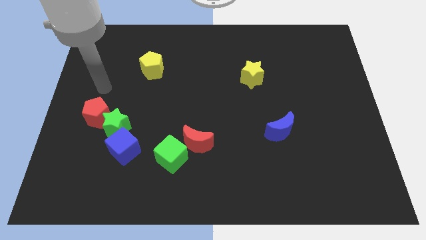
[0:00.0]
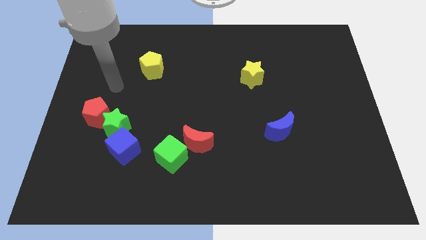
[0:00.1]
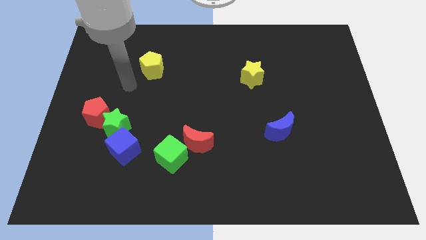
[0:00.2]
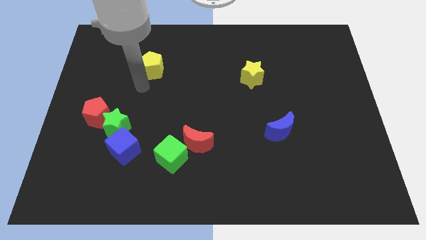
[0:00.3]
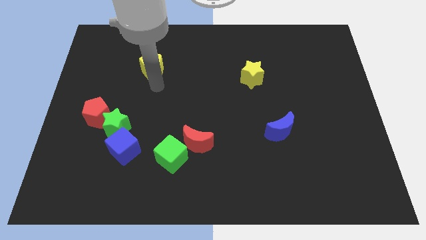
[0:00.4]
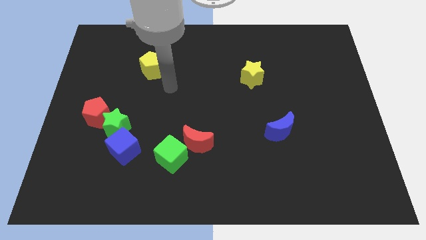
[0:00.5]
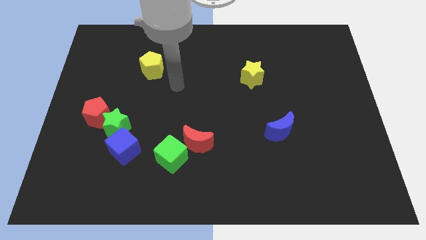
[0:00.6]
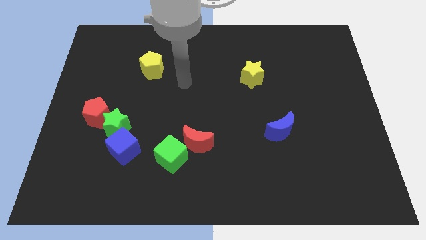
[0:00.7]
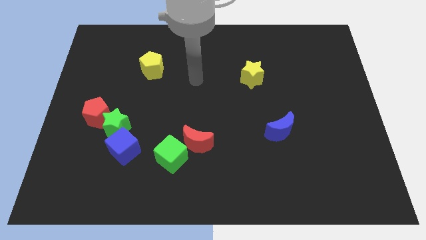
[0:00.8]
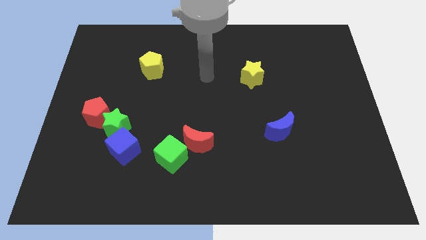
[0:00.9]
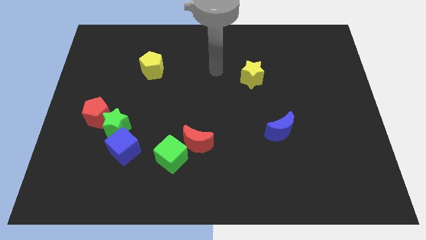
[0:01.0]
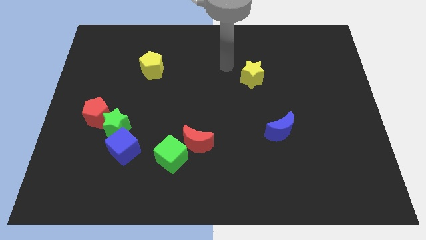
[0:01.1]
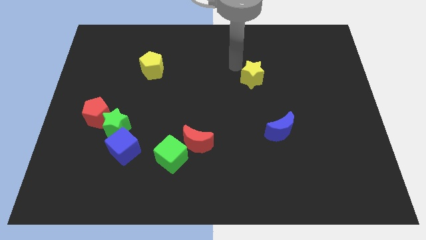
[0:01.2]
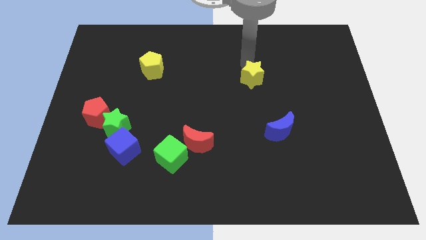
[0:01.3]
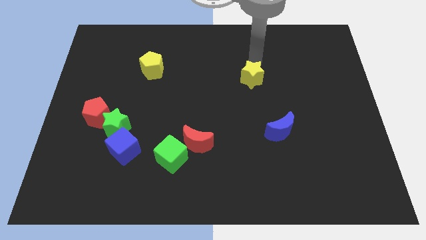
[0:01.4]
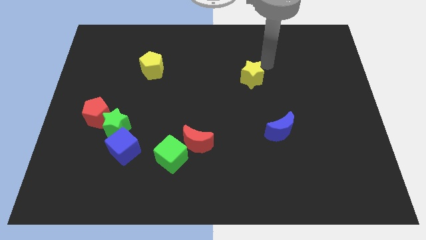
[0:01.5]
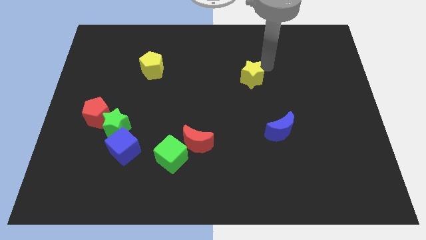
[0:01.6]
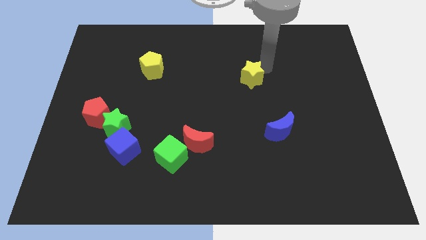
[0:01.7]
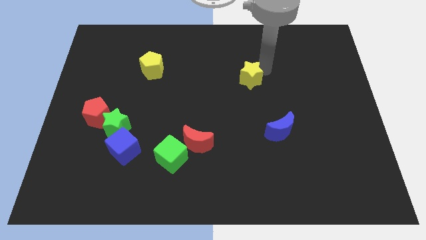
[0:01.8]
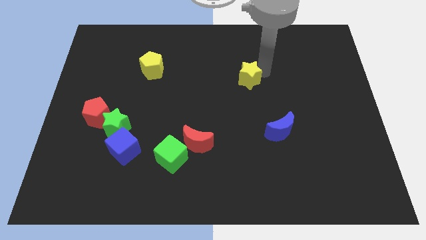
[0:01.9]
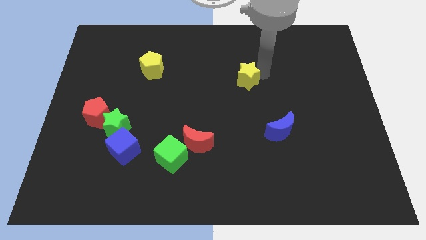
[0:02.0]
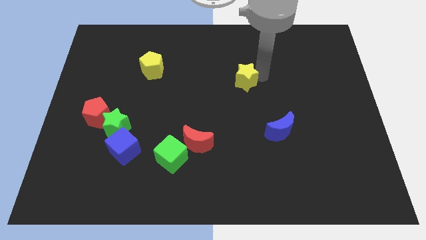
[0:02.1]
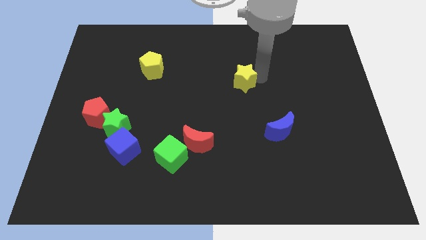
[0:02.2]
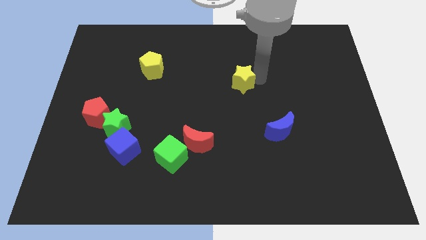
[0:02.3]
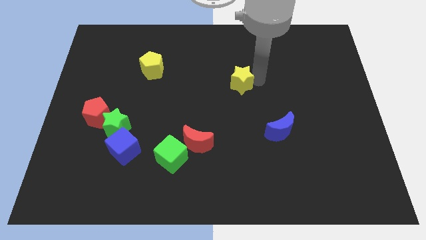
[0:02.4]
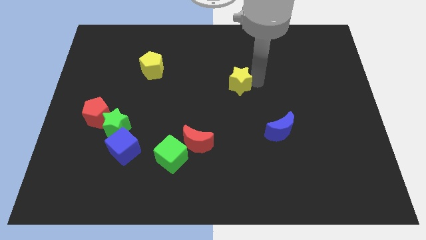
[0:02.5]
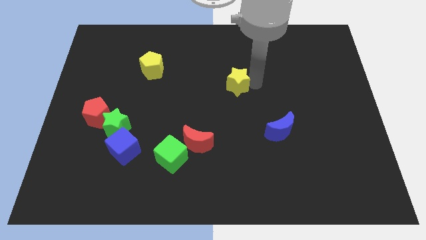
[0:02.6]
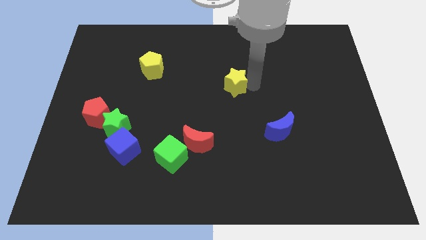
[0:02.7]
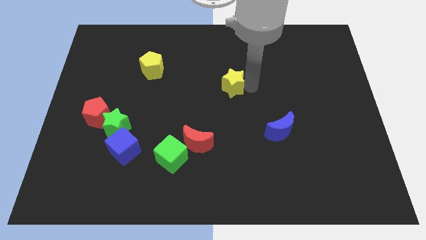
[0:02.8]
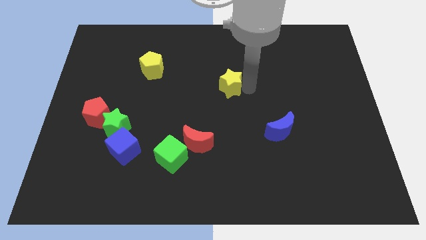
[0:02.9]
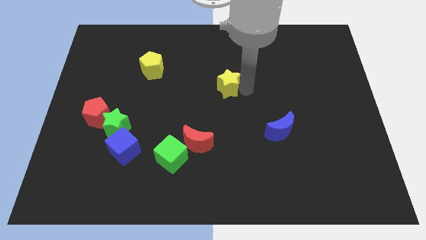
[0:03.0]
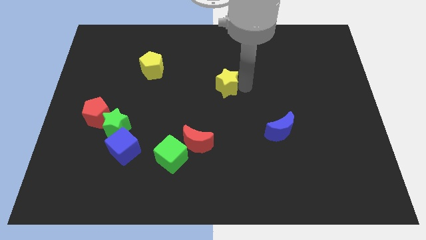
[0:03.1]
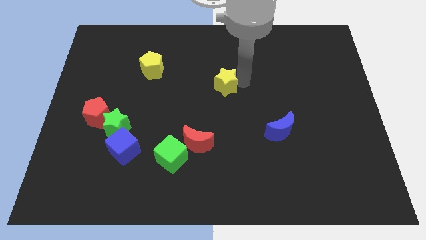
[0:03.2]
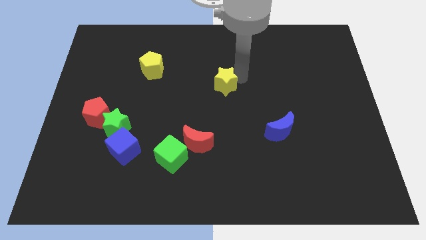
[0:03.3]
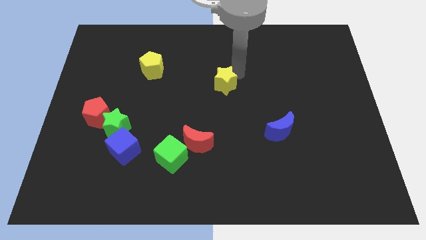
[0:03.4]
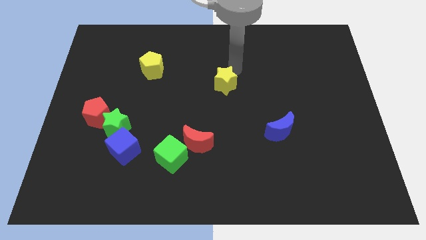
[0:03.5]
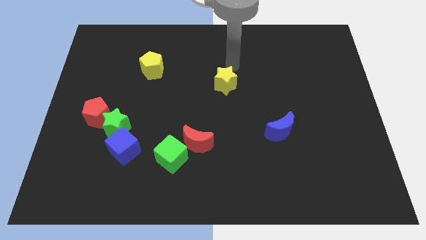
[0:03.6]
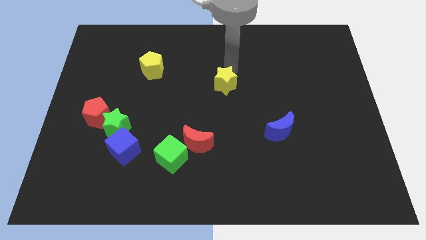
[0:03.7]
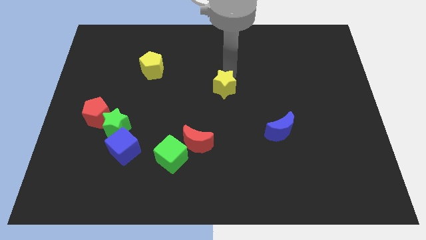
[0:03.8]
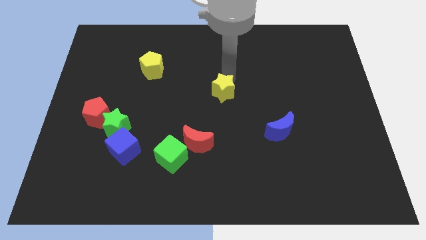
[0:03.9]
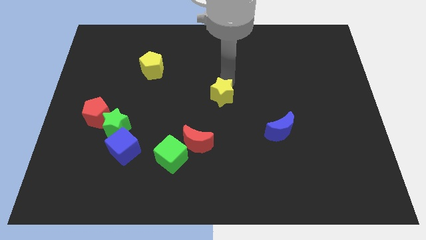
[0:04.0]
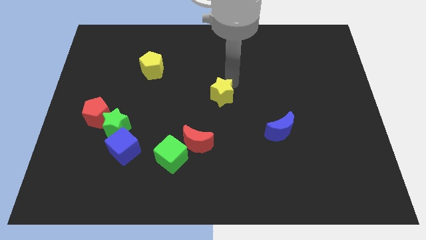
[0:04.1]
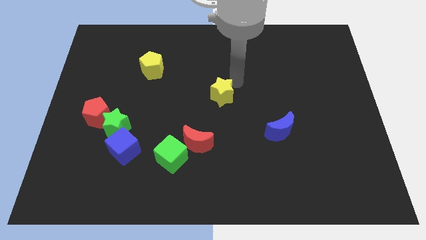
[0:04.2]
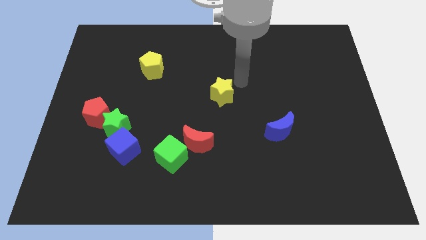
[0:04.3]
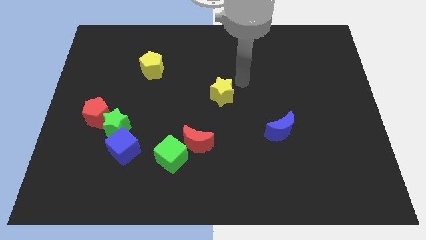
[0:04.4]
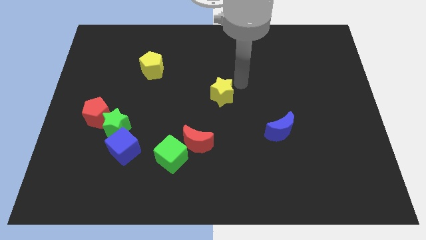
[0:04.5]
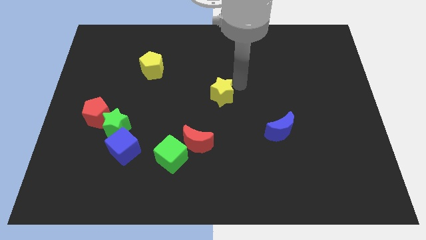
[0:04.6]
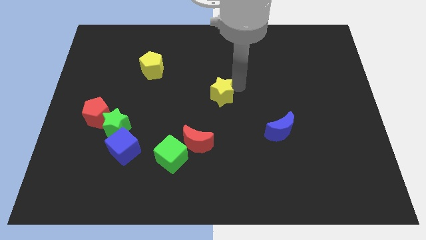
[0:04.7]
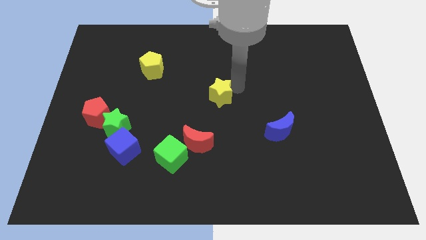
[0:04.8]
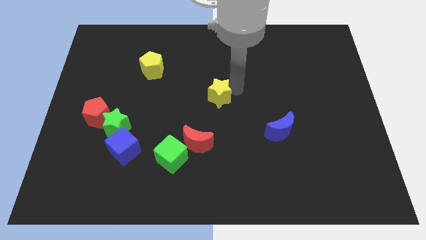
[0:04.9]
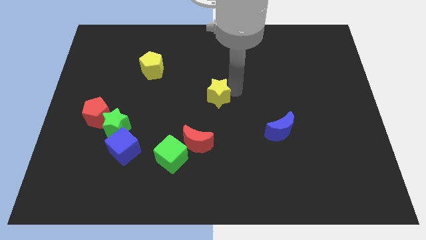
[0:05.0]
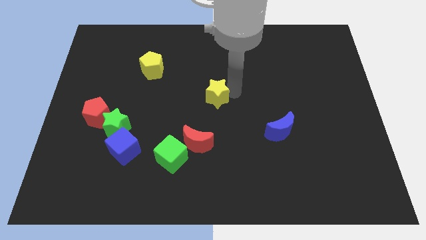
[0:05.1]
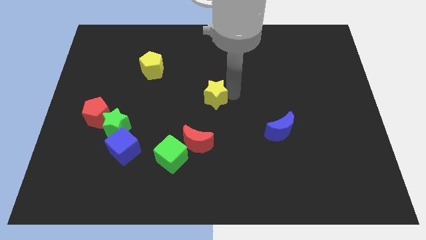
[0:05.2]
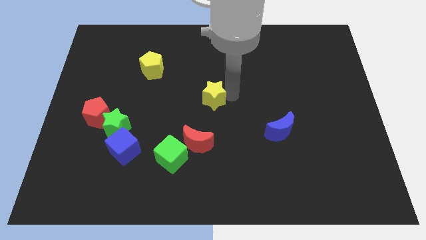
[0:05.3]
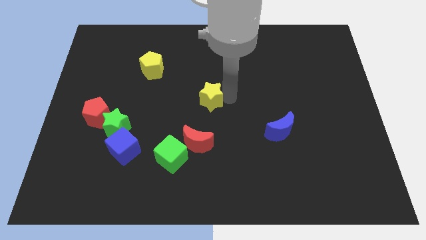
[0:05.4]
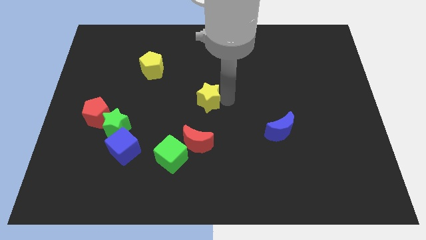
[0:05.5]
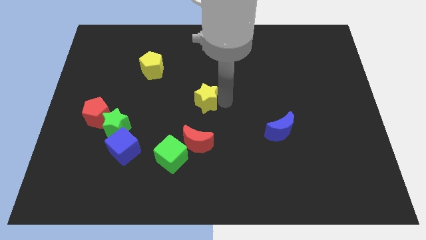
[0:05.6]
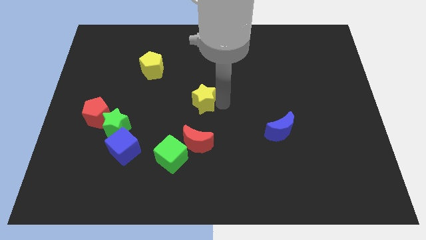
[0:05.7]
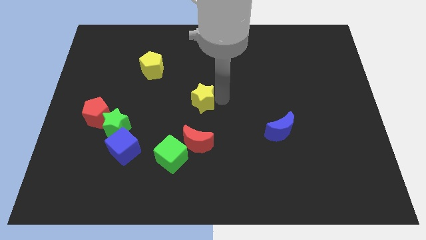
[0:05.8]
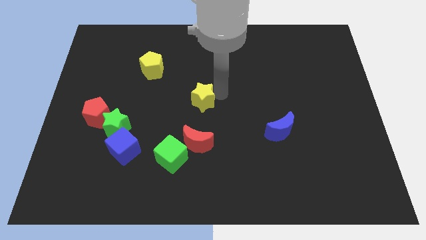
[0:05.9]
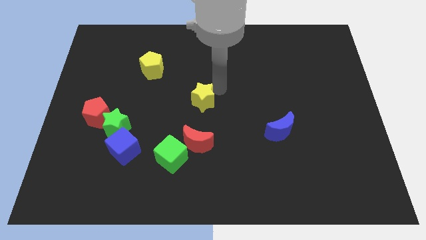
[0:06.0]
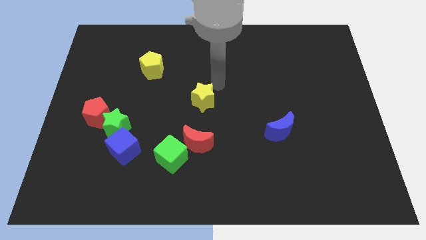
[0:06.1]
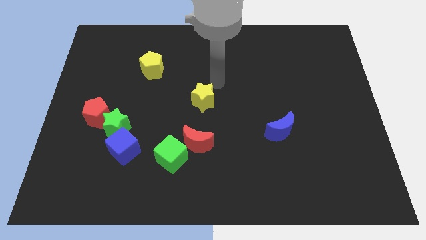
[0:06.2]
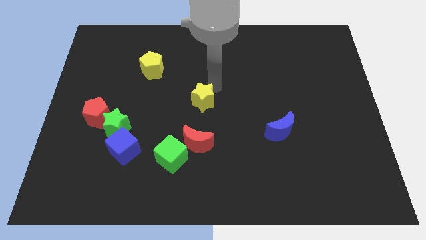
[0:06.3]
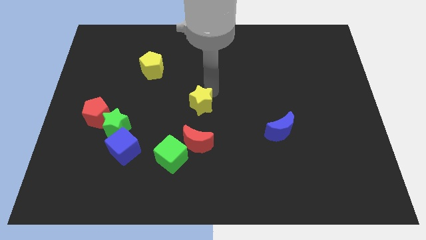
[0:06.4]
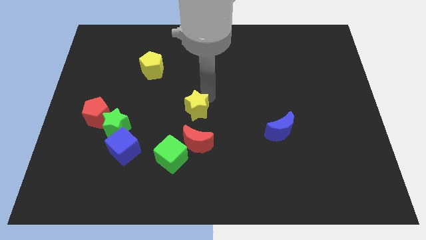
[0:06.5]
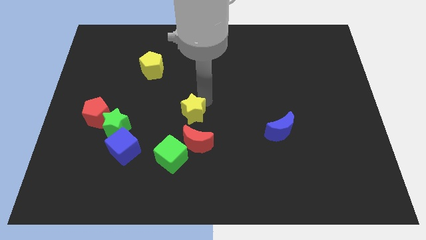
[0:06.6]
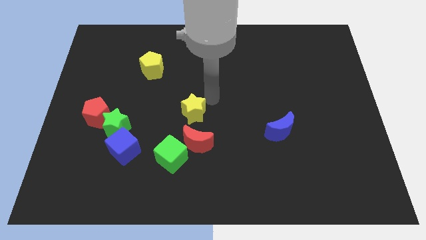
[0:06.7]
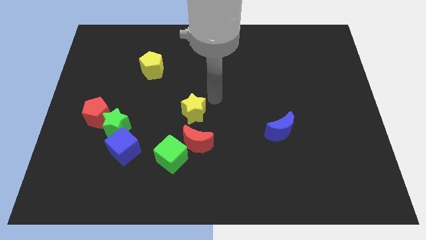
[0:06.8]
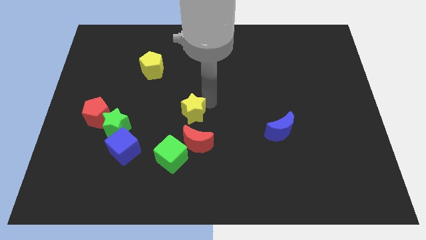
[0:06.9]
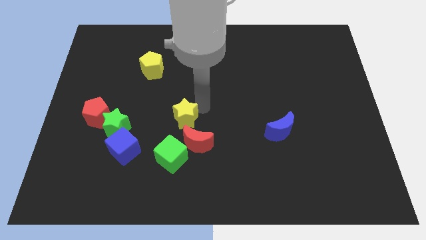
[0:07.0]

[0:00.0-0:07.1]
push the yellow star downwards and to the left

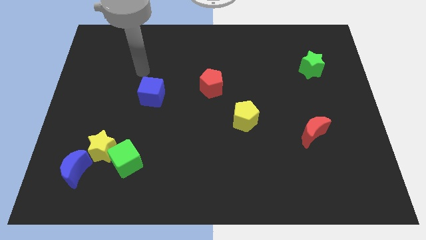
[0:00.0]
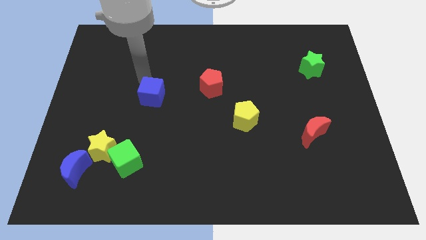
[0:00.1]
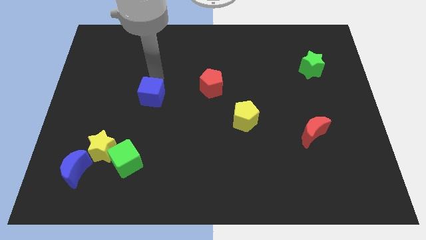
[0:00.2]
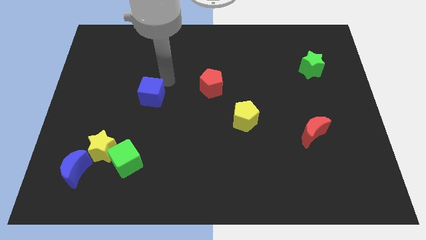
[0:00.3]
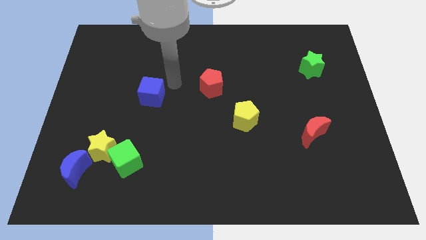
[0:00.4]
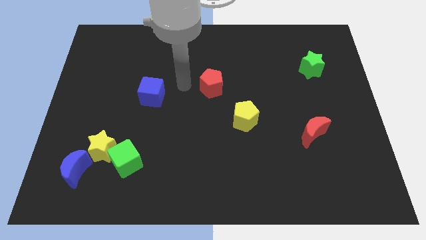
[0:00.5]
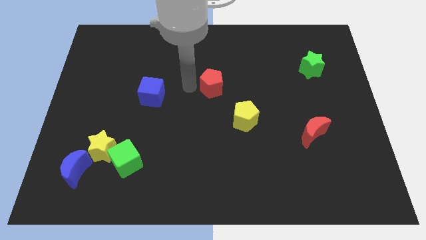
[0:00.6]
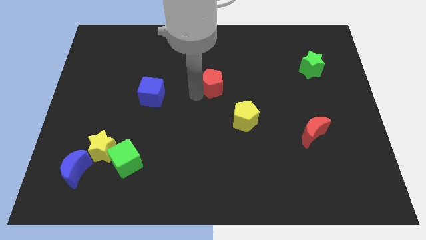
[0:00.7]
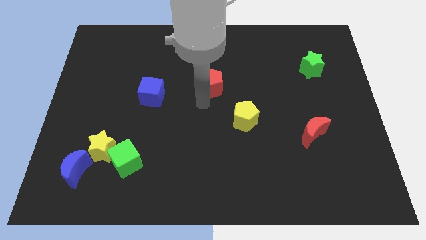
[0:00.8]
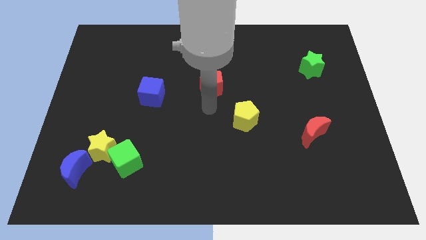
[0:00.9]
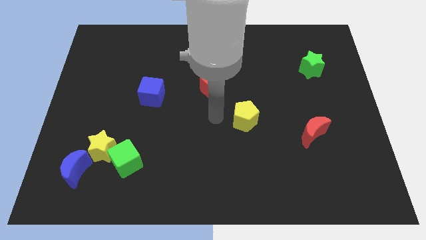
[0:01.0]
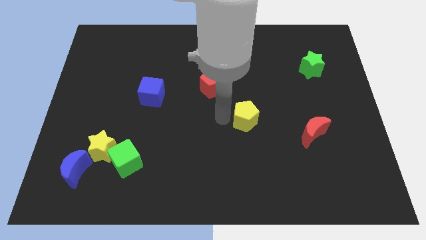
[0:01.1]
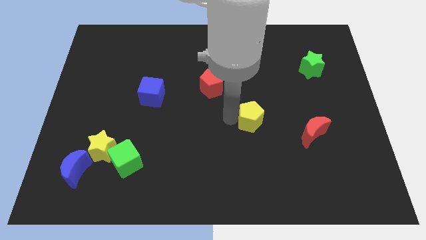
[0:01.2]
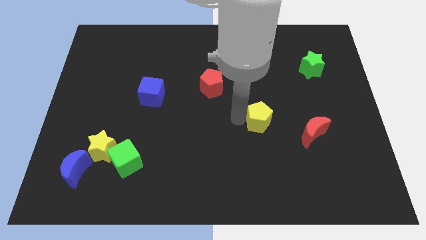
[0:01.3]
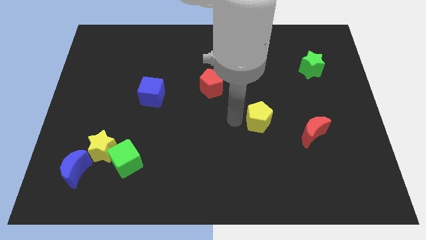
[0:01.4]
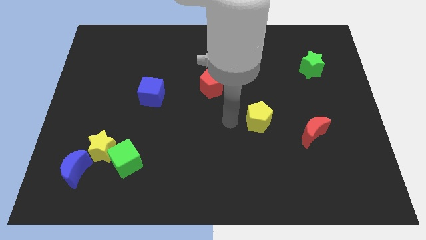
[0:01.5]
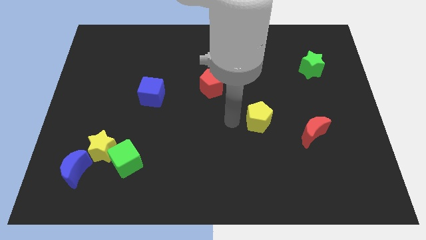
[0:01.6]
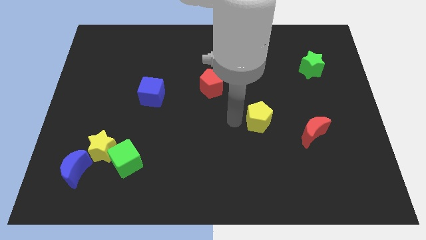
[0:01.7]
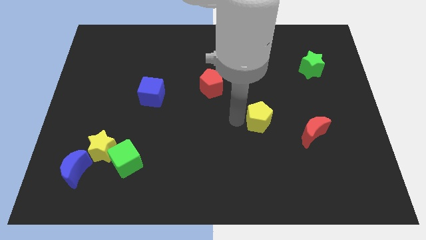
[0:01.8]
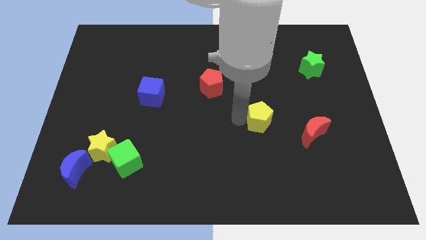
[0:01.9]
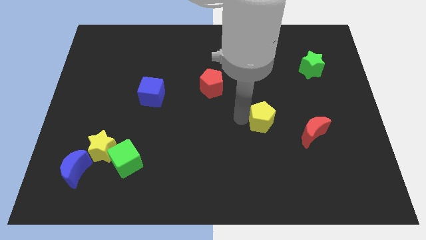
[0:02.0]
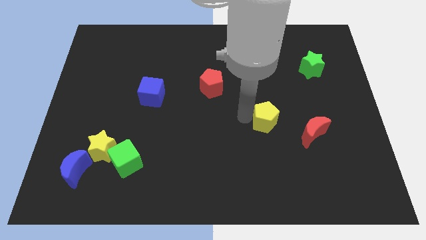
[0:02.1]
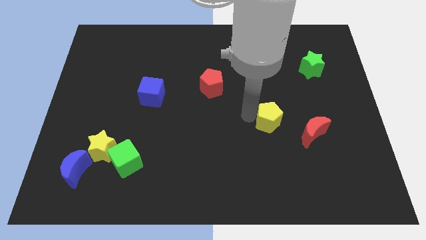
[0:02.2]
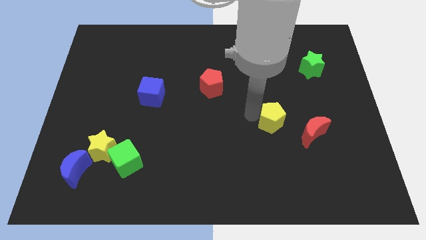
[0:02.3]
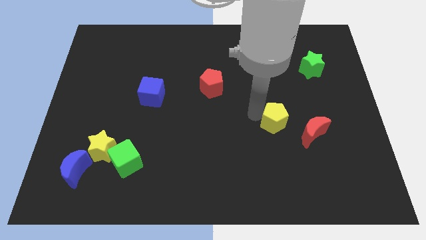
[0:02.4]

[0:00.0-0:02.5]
slightly slide the yellow pentagon right
